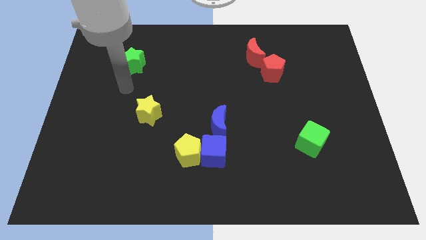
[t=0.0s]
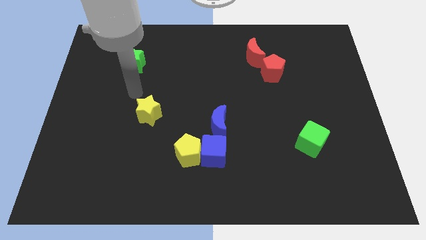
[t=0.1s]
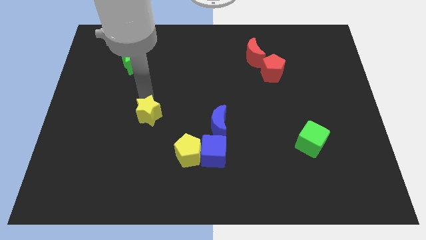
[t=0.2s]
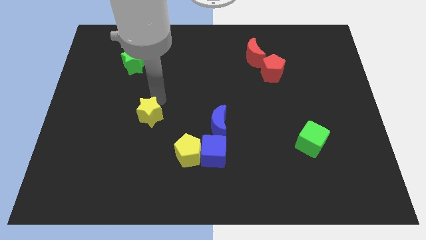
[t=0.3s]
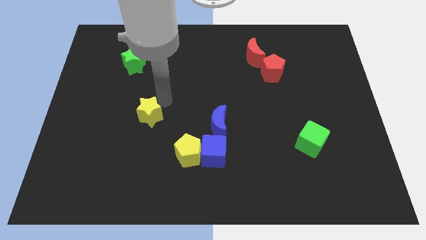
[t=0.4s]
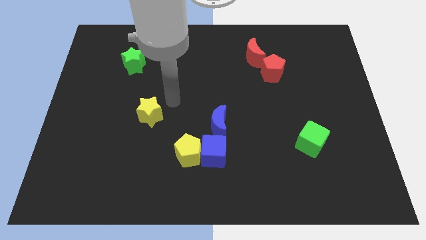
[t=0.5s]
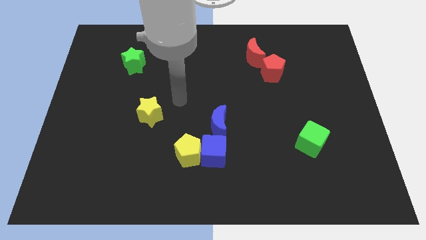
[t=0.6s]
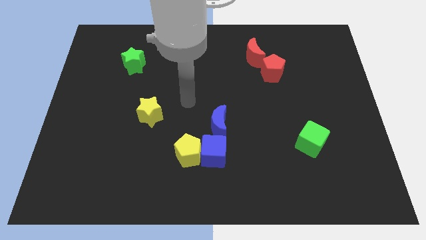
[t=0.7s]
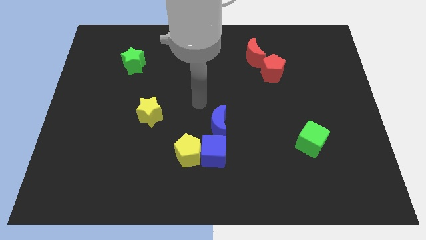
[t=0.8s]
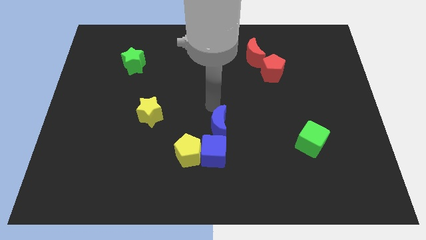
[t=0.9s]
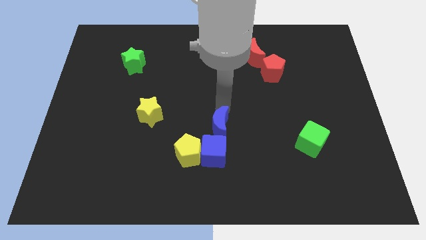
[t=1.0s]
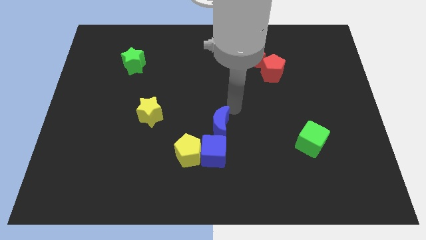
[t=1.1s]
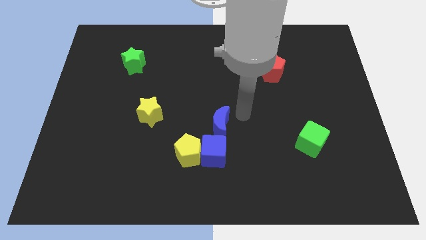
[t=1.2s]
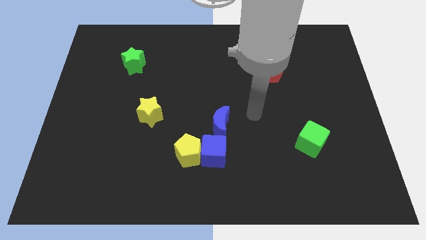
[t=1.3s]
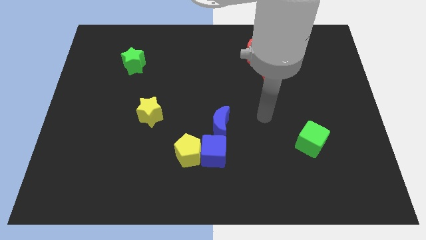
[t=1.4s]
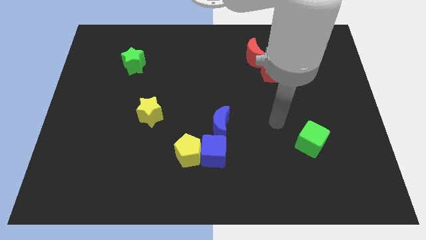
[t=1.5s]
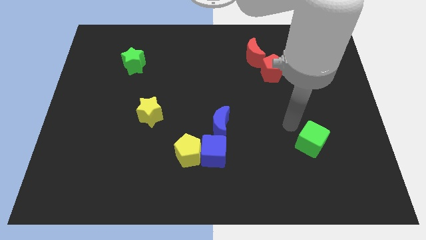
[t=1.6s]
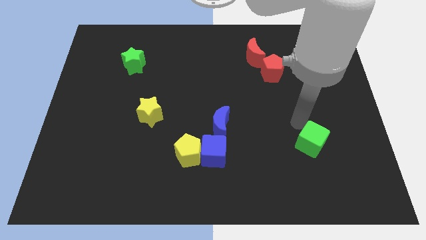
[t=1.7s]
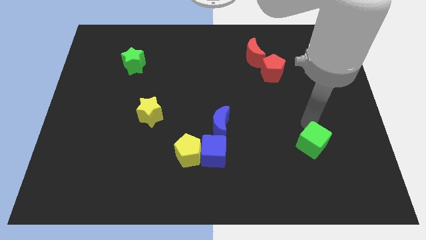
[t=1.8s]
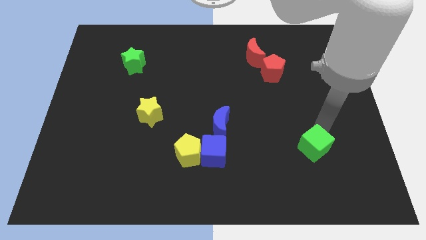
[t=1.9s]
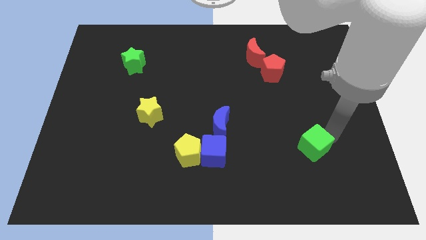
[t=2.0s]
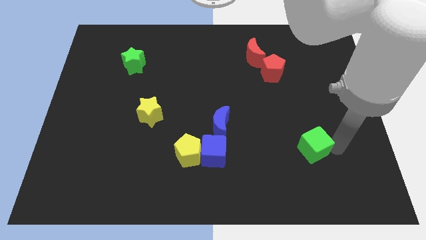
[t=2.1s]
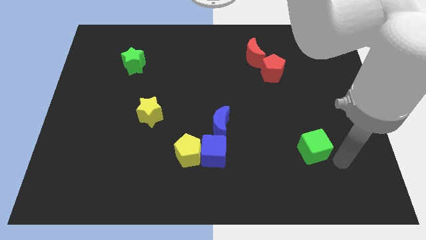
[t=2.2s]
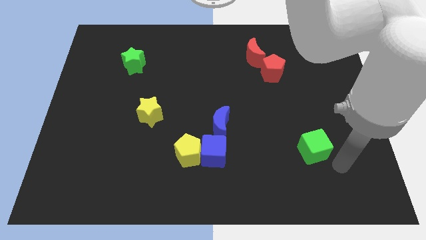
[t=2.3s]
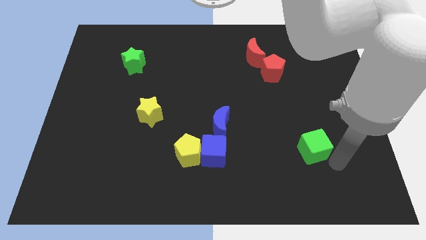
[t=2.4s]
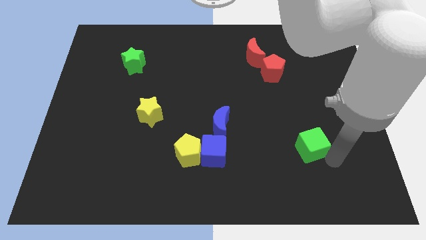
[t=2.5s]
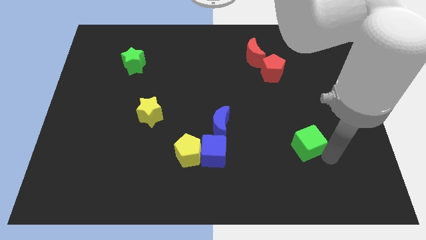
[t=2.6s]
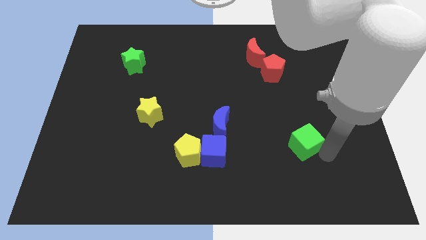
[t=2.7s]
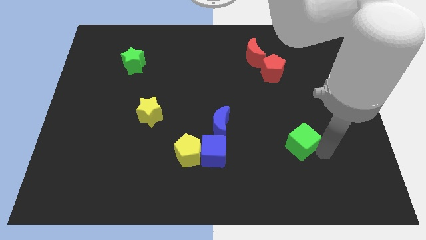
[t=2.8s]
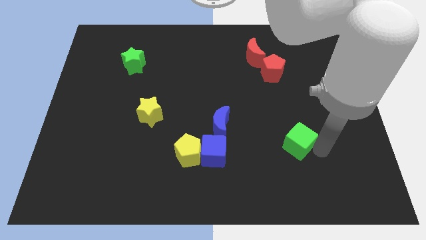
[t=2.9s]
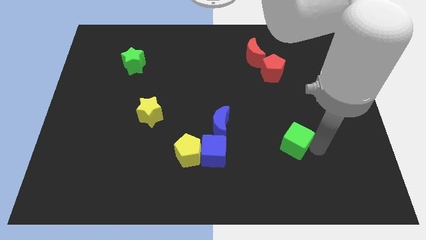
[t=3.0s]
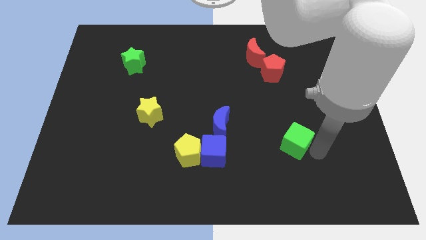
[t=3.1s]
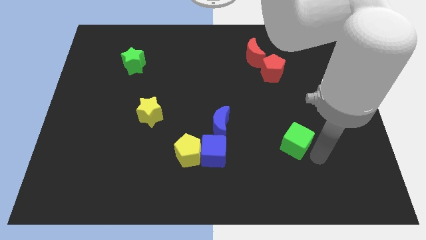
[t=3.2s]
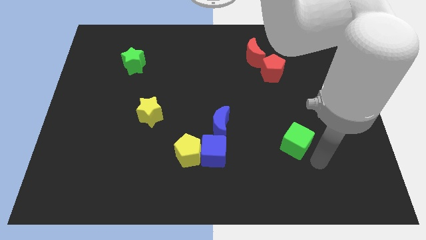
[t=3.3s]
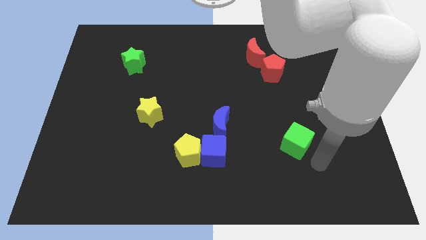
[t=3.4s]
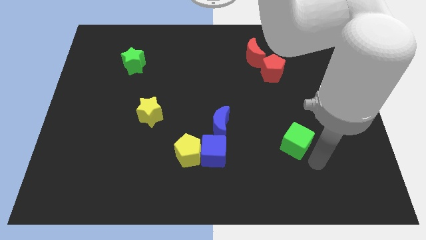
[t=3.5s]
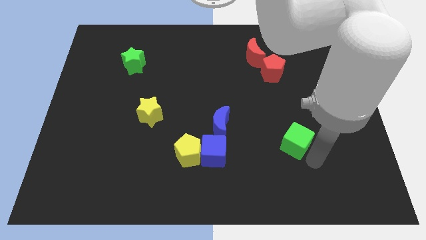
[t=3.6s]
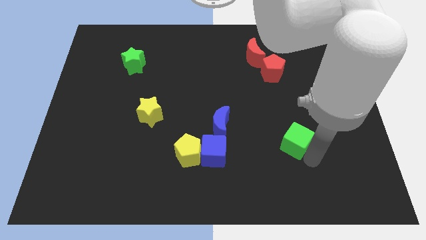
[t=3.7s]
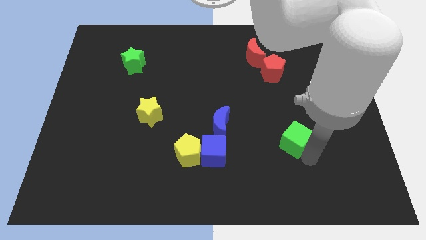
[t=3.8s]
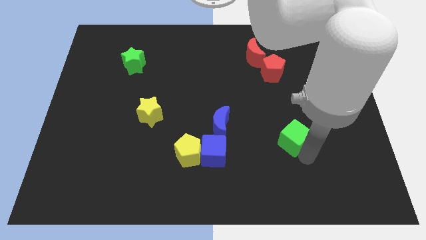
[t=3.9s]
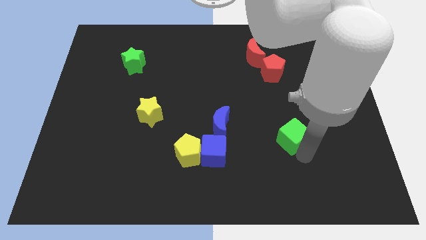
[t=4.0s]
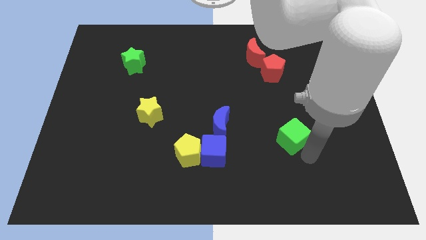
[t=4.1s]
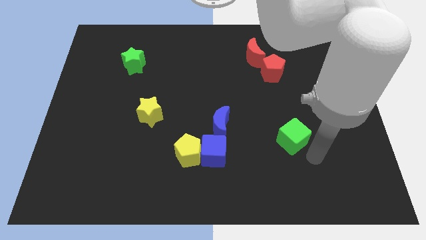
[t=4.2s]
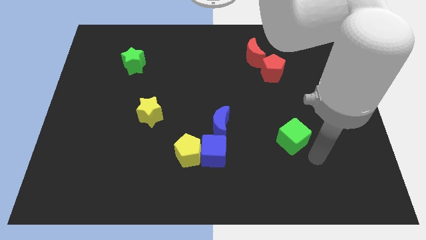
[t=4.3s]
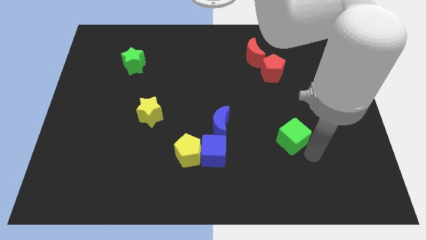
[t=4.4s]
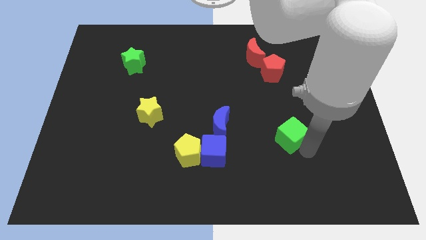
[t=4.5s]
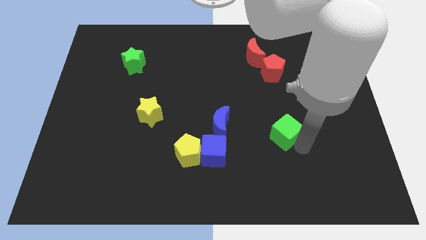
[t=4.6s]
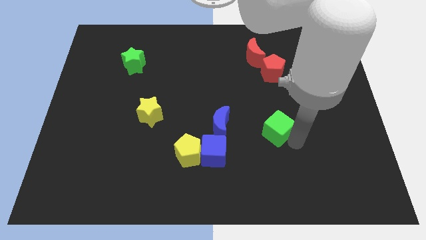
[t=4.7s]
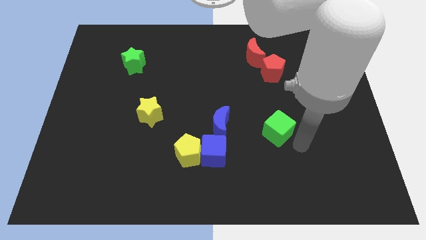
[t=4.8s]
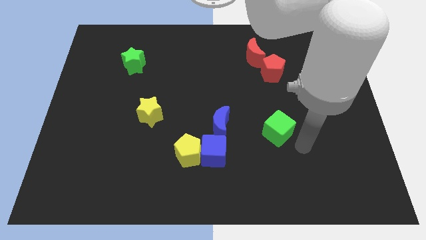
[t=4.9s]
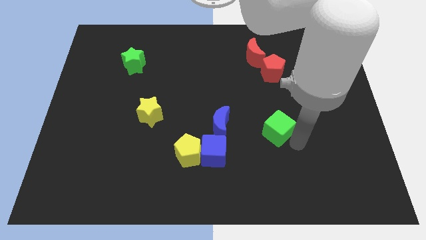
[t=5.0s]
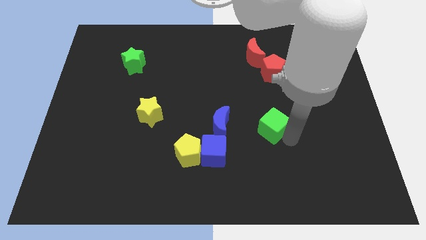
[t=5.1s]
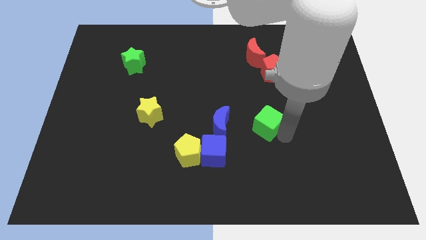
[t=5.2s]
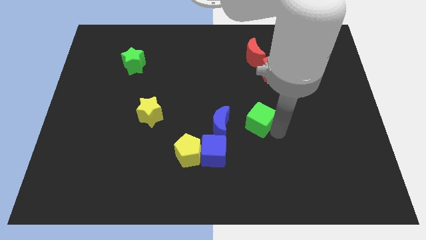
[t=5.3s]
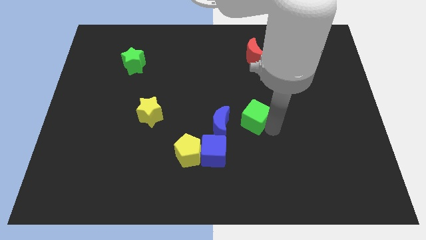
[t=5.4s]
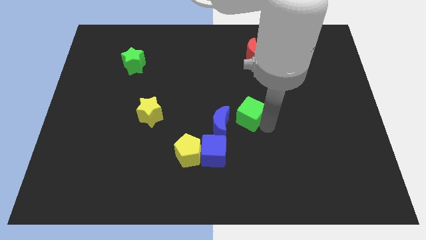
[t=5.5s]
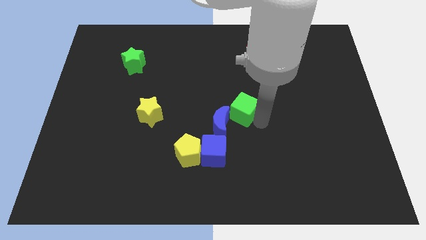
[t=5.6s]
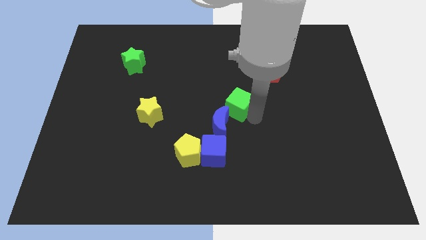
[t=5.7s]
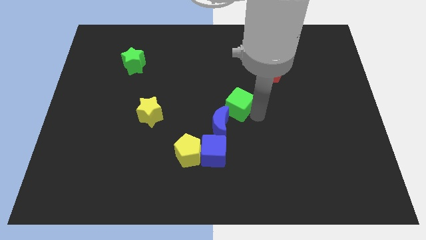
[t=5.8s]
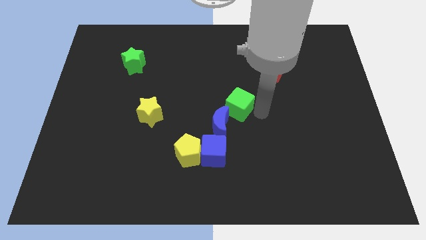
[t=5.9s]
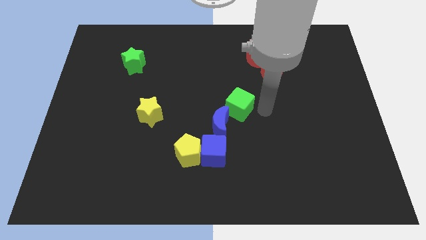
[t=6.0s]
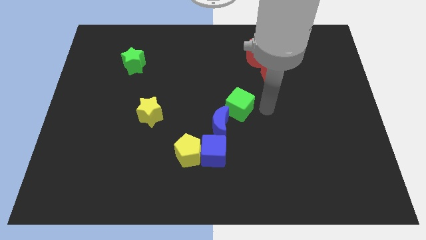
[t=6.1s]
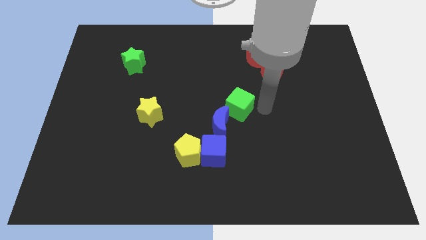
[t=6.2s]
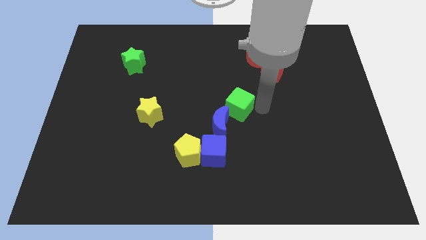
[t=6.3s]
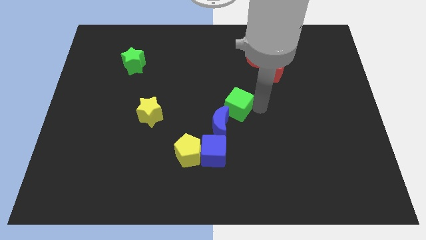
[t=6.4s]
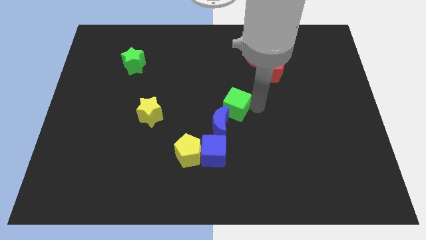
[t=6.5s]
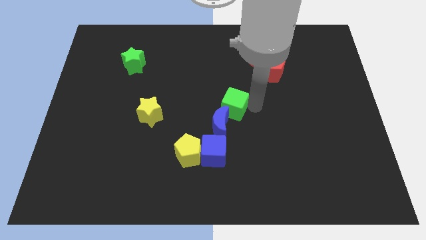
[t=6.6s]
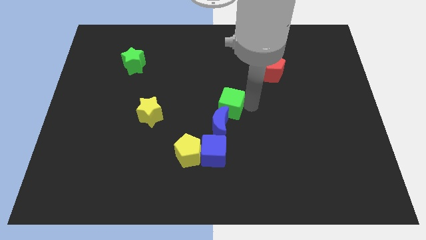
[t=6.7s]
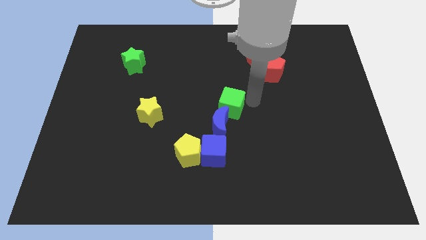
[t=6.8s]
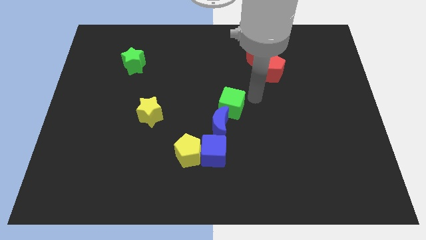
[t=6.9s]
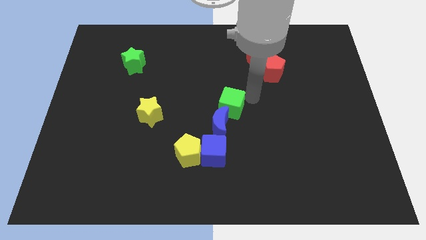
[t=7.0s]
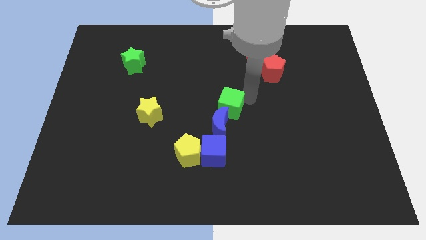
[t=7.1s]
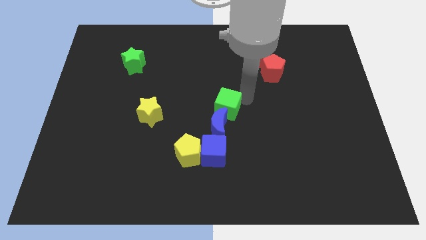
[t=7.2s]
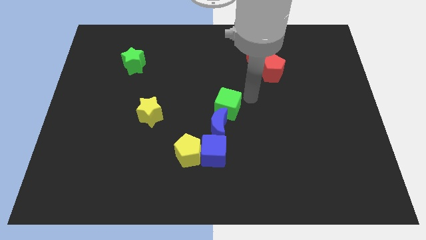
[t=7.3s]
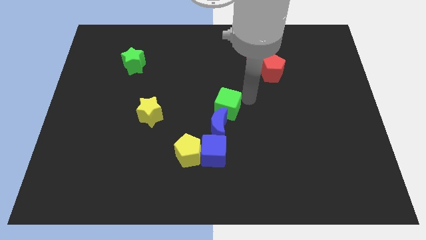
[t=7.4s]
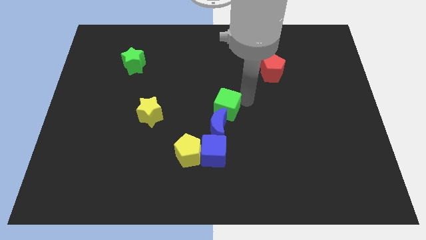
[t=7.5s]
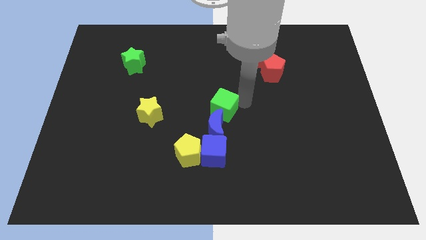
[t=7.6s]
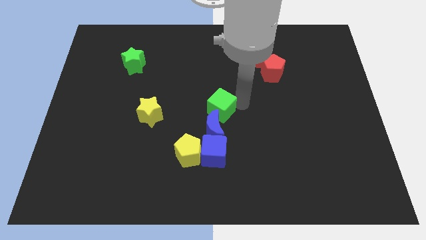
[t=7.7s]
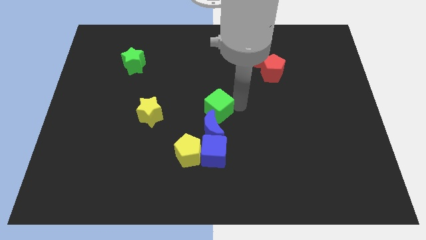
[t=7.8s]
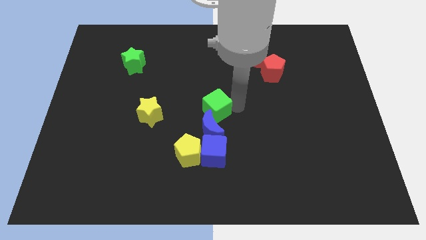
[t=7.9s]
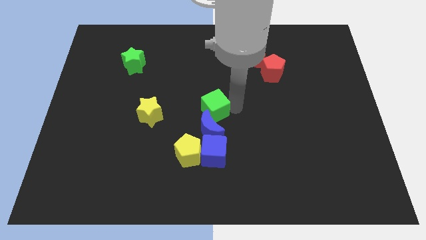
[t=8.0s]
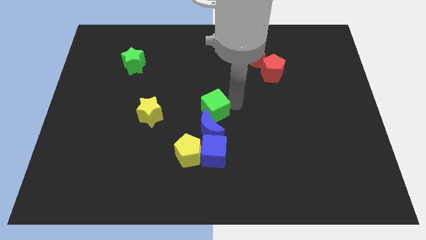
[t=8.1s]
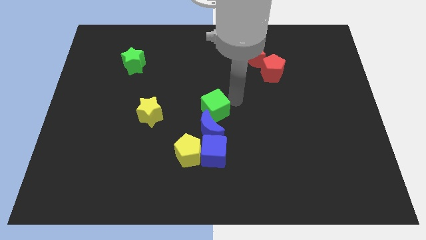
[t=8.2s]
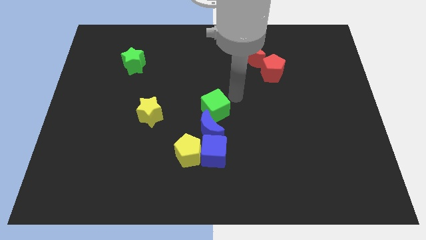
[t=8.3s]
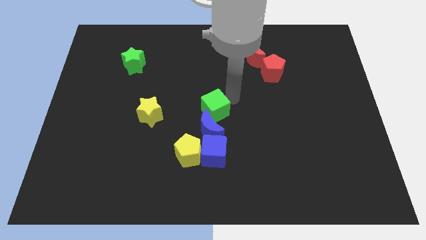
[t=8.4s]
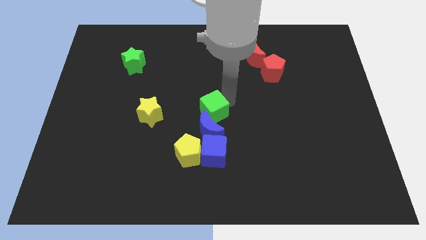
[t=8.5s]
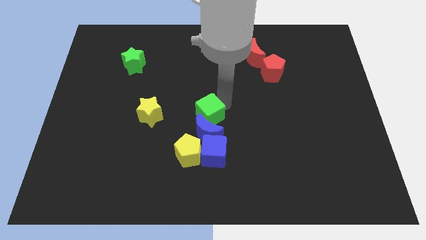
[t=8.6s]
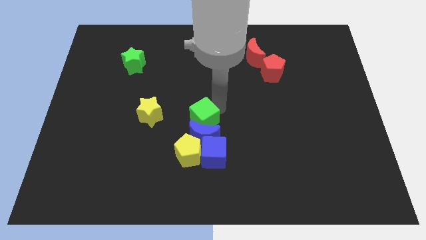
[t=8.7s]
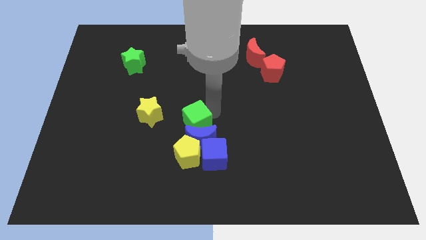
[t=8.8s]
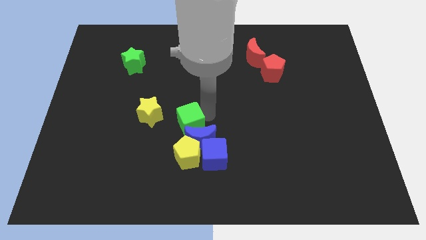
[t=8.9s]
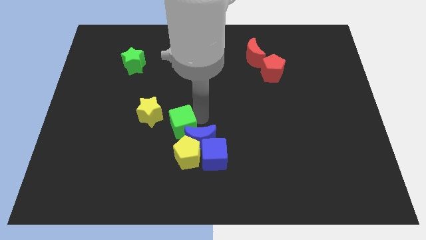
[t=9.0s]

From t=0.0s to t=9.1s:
push the green cube to the top left of the yellow pentagon
